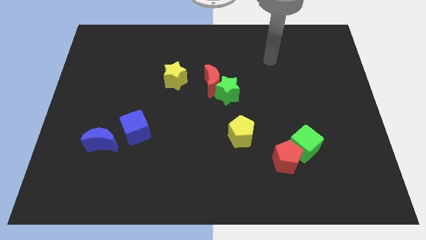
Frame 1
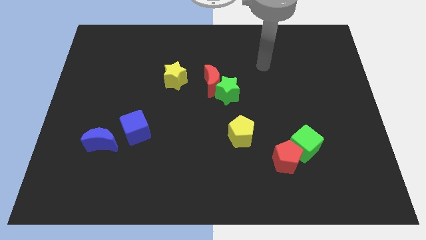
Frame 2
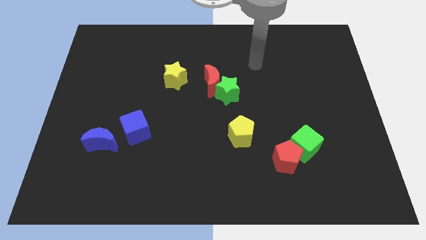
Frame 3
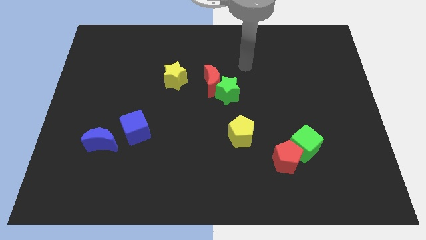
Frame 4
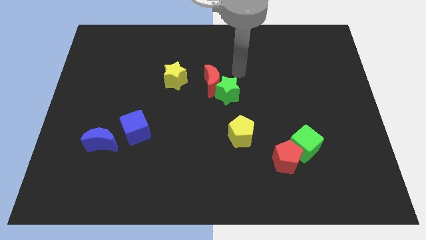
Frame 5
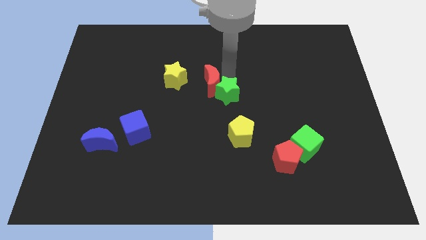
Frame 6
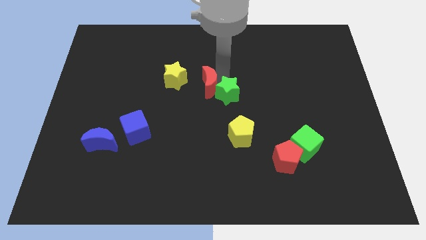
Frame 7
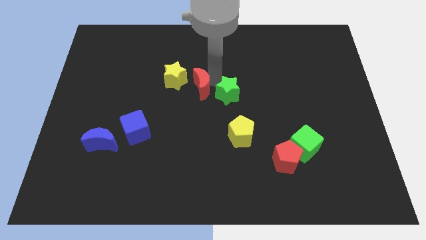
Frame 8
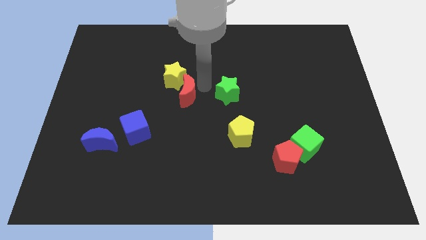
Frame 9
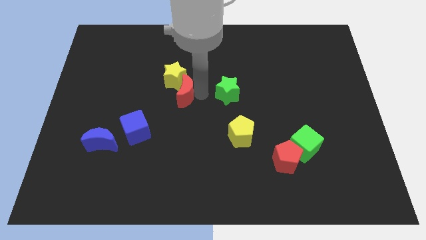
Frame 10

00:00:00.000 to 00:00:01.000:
pull the green star apart from the red moon

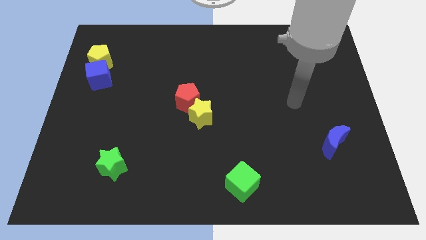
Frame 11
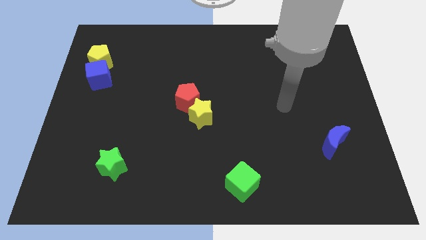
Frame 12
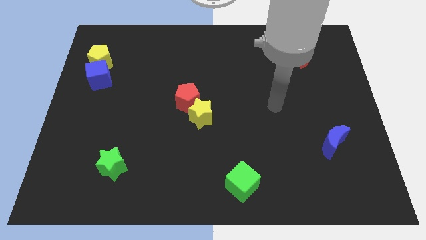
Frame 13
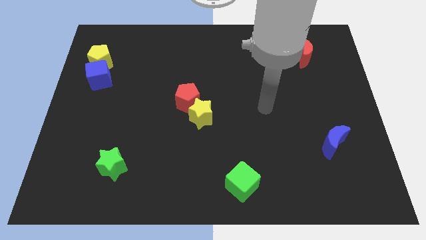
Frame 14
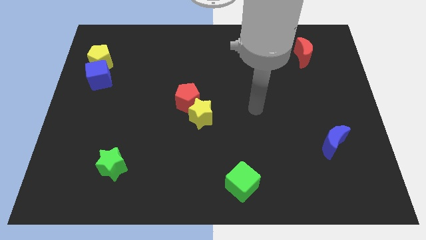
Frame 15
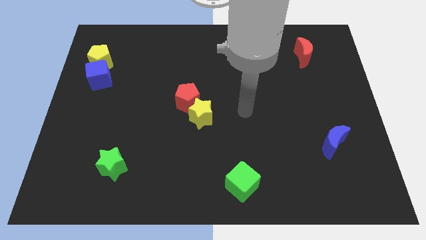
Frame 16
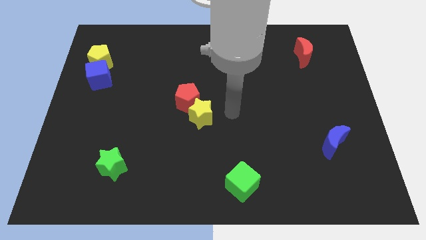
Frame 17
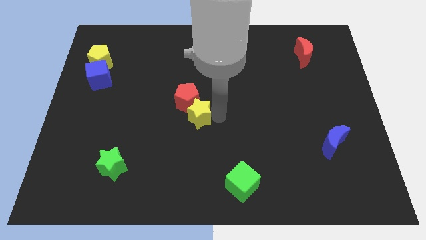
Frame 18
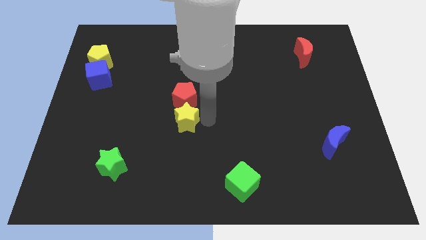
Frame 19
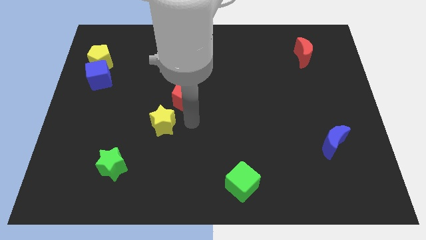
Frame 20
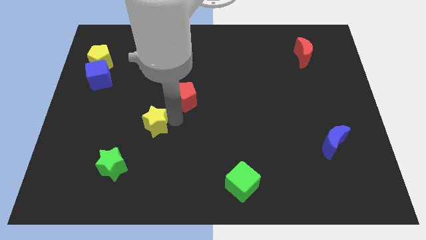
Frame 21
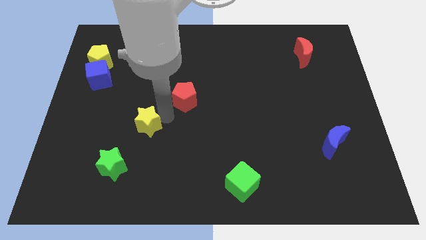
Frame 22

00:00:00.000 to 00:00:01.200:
move the red pentagon away from the yellow star

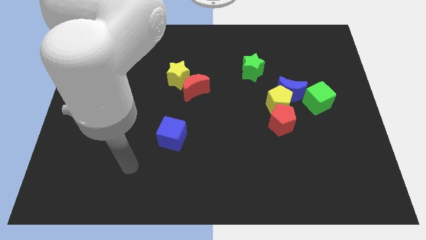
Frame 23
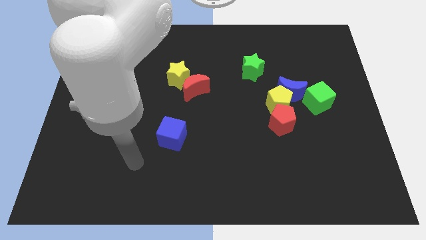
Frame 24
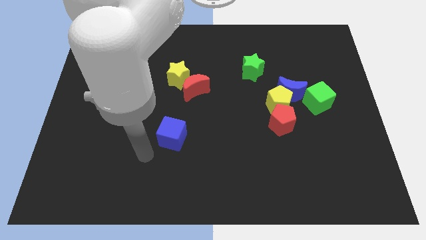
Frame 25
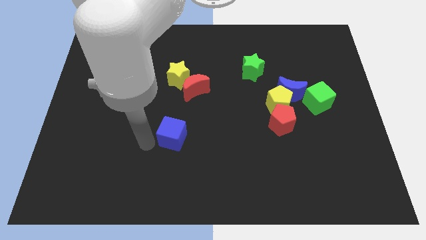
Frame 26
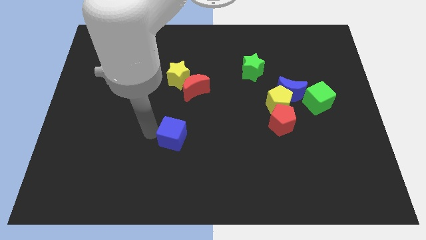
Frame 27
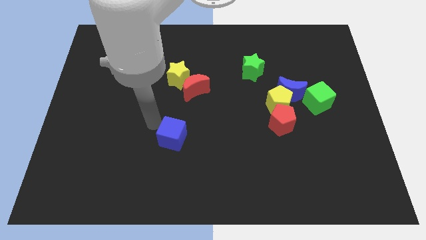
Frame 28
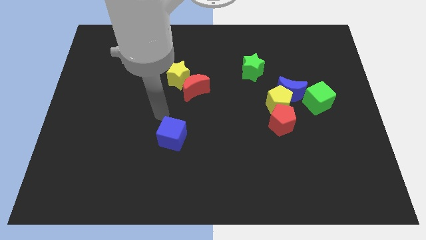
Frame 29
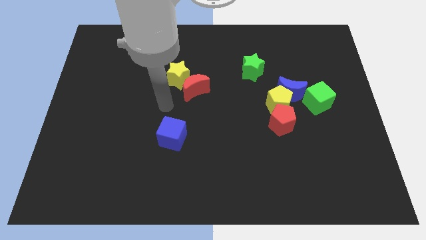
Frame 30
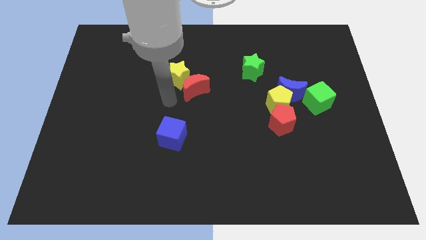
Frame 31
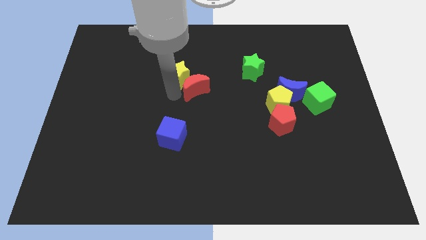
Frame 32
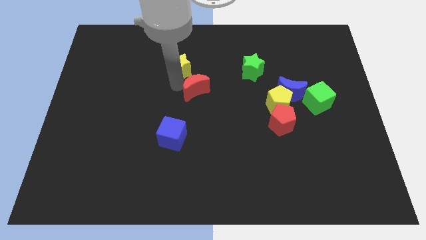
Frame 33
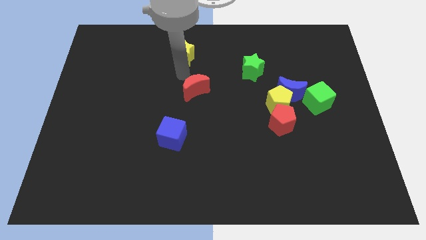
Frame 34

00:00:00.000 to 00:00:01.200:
pull the red moon apart from the yellow star

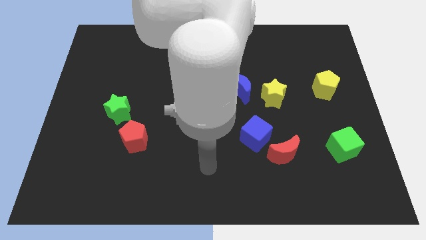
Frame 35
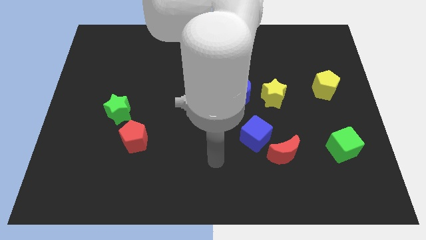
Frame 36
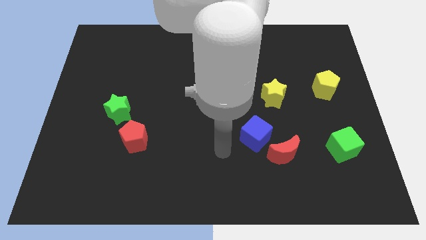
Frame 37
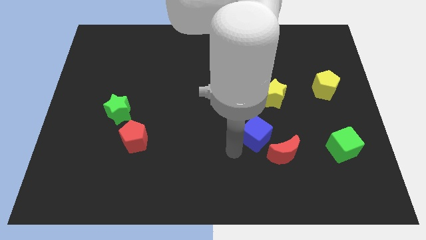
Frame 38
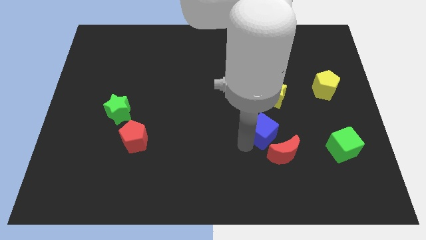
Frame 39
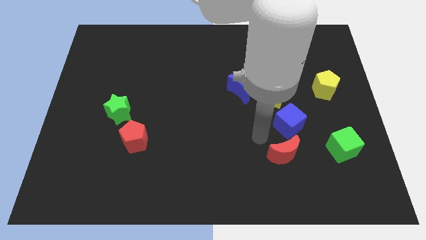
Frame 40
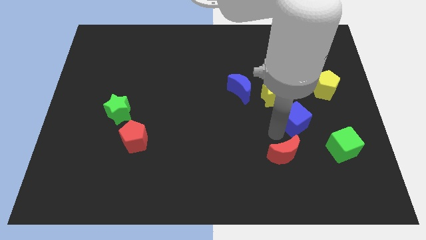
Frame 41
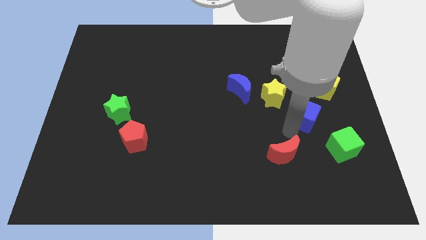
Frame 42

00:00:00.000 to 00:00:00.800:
pull the red moon apart from the blue cube

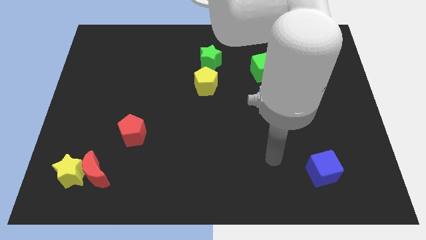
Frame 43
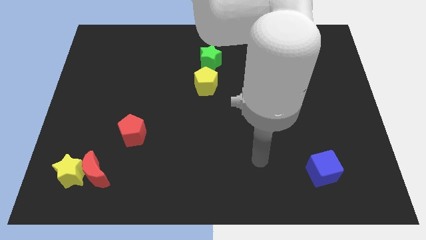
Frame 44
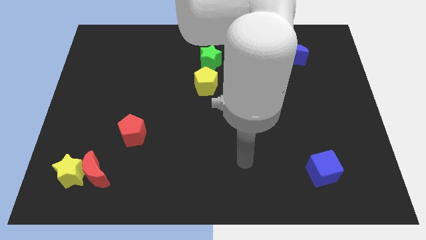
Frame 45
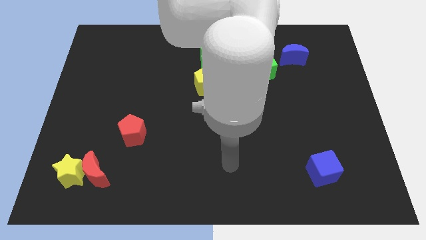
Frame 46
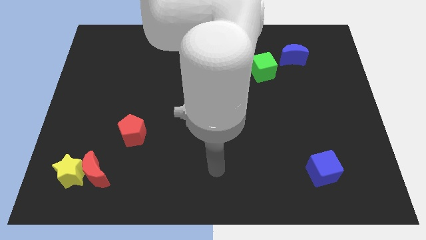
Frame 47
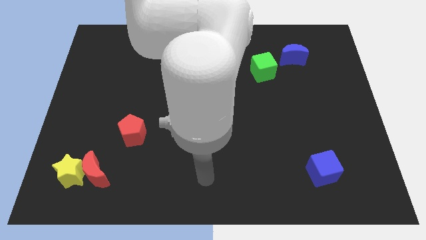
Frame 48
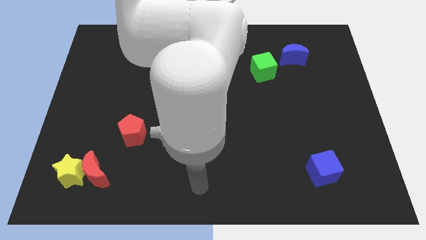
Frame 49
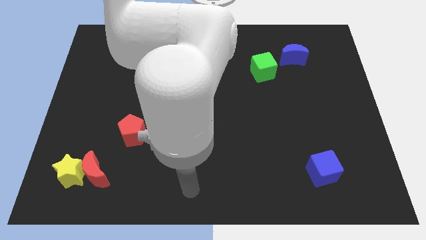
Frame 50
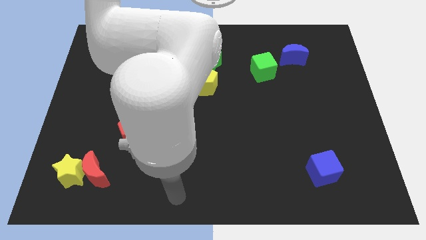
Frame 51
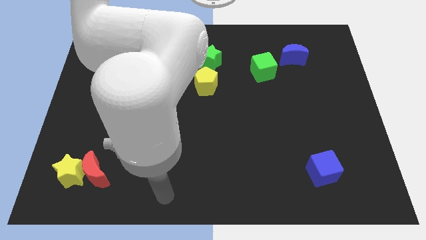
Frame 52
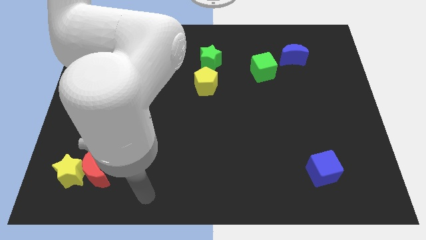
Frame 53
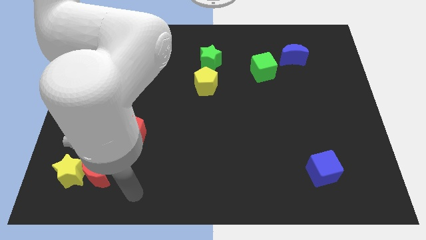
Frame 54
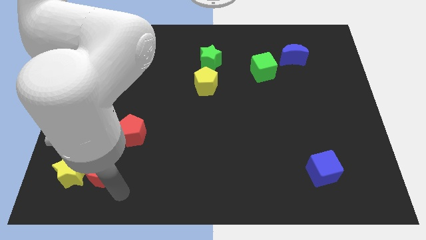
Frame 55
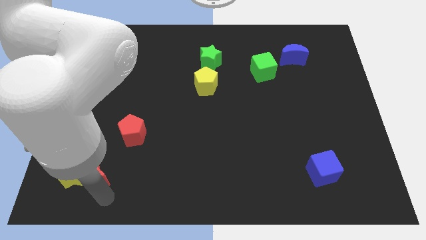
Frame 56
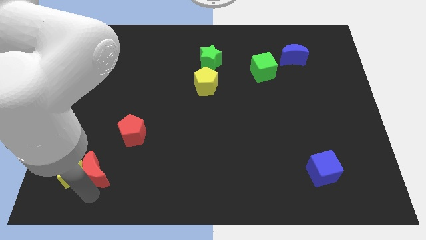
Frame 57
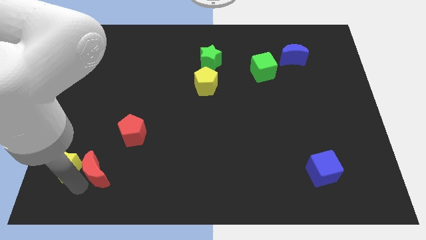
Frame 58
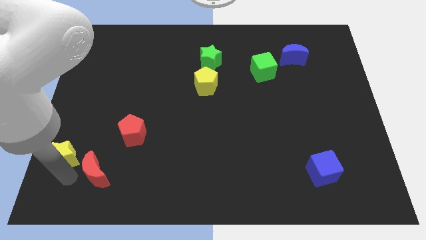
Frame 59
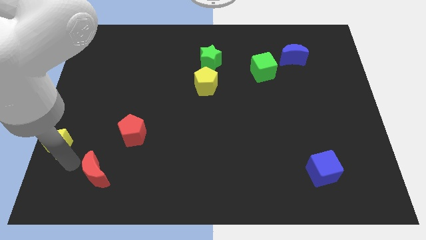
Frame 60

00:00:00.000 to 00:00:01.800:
move the red moon away from the yellow star

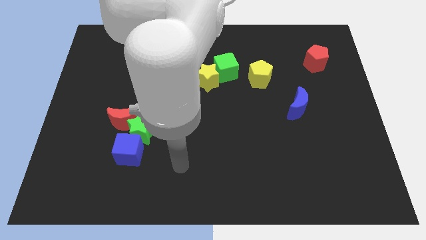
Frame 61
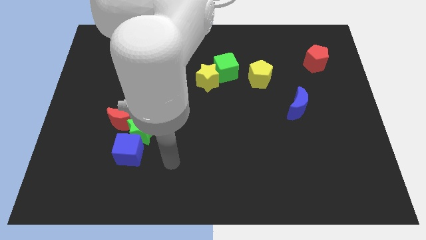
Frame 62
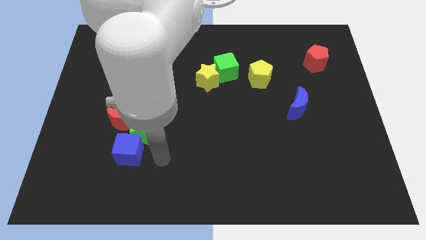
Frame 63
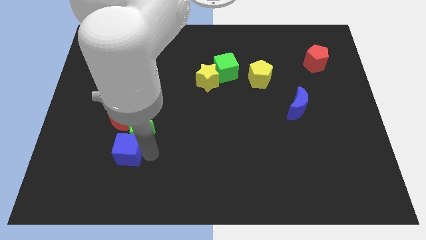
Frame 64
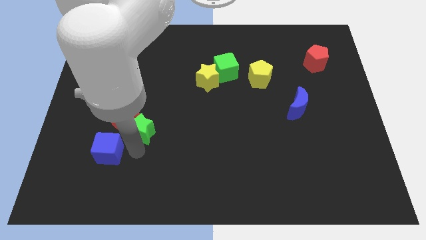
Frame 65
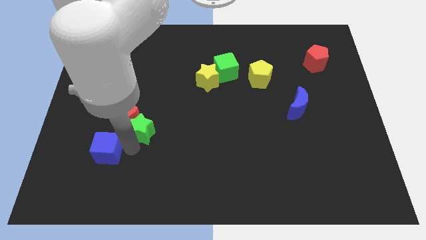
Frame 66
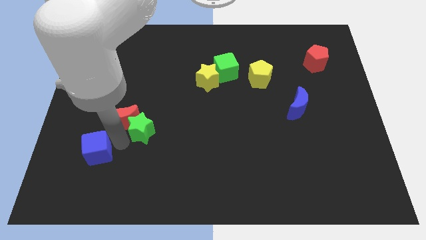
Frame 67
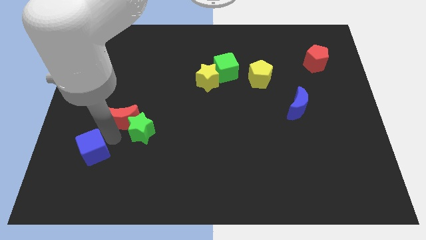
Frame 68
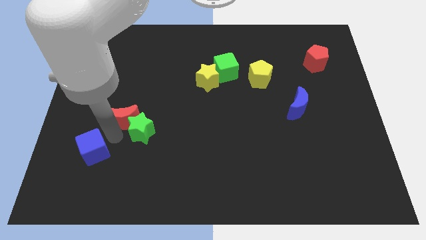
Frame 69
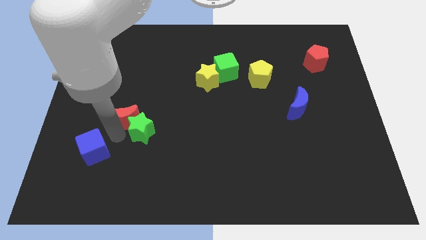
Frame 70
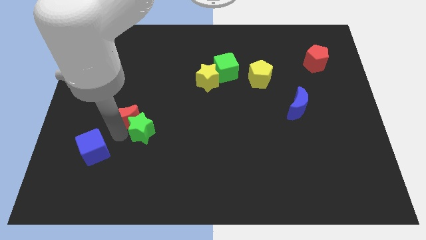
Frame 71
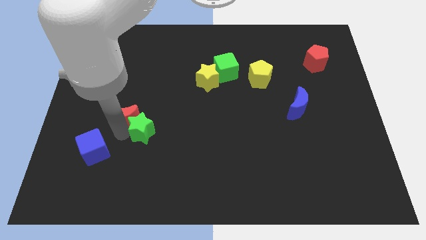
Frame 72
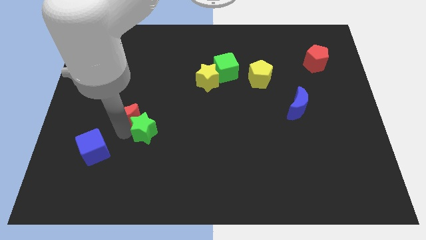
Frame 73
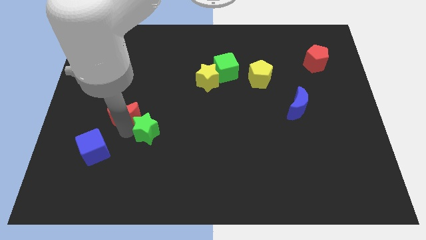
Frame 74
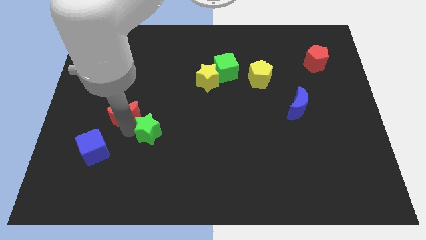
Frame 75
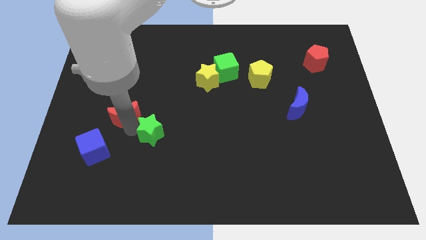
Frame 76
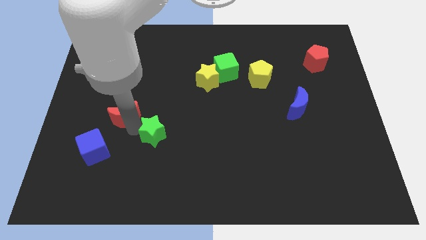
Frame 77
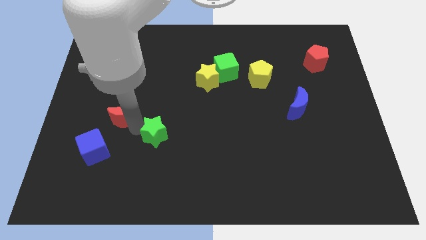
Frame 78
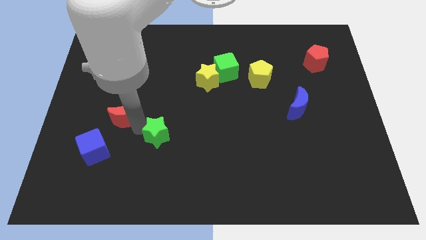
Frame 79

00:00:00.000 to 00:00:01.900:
separate the green star from the red moon and blue cube

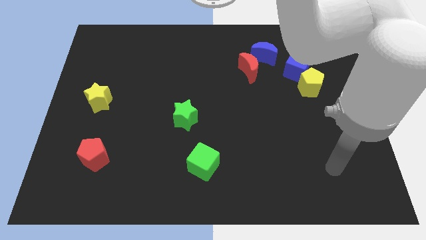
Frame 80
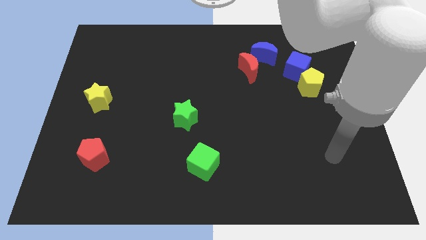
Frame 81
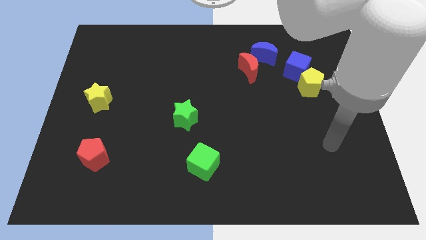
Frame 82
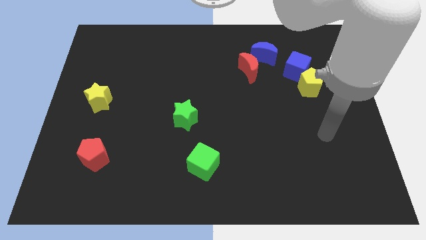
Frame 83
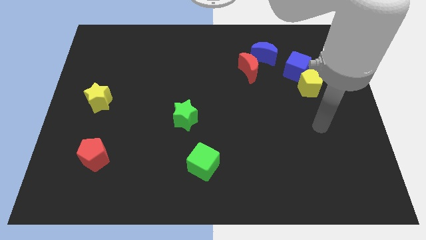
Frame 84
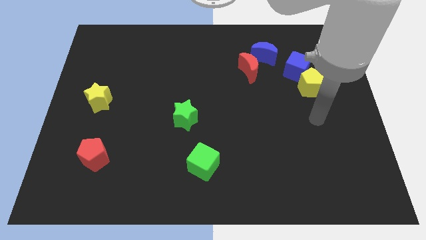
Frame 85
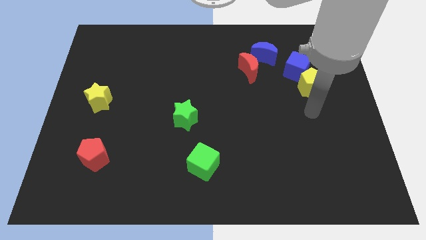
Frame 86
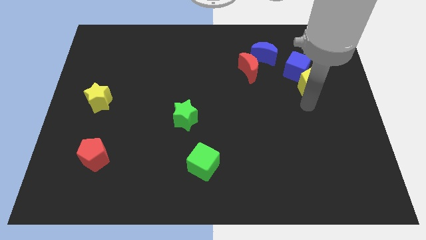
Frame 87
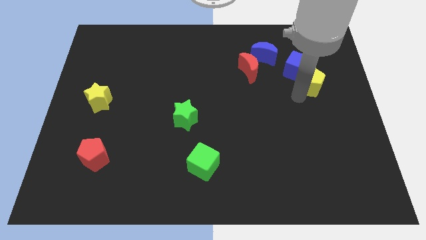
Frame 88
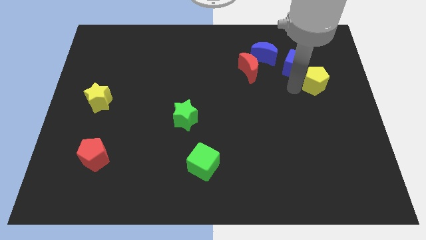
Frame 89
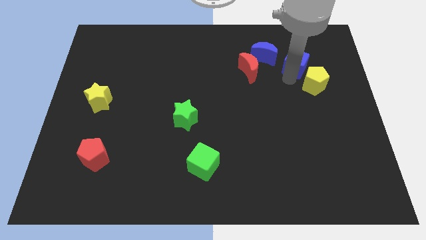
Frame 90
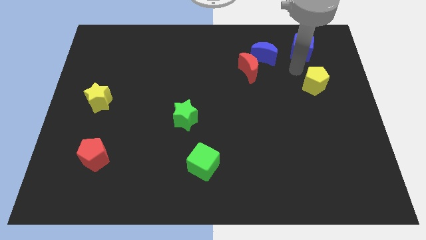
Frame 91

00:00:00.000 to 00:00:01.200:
move the yellow pentagon away from the blue cube

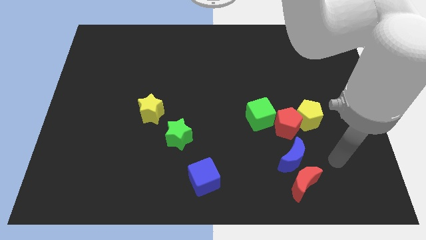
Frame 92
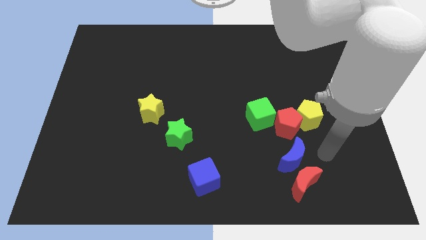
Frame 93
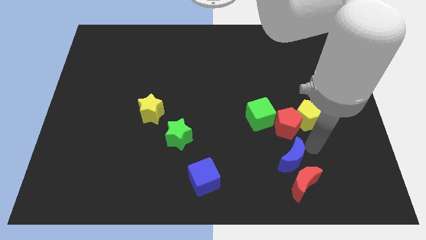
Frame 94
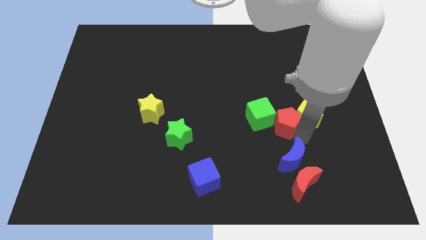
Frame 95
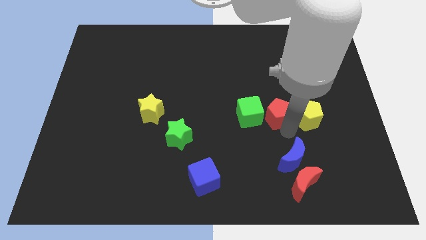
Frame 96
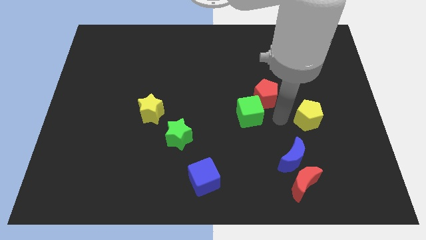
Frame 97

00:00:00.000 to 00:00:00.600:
separate the yellow pentagon from the red pentagon
